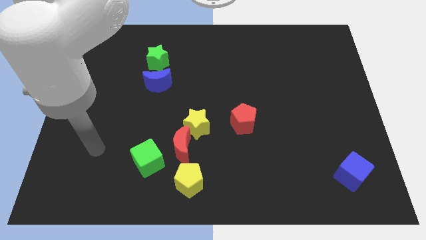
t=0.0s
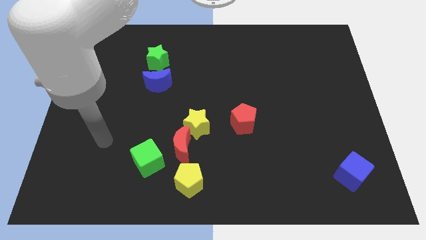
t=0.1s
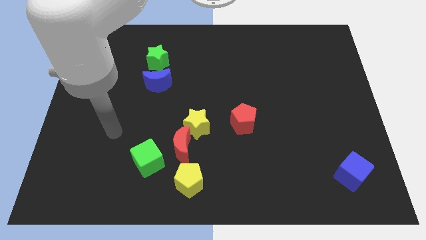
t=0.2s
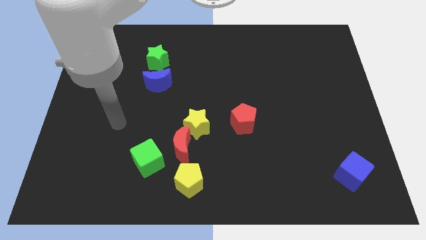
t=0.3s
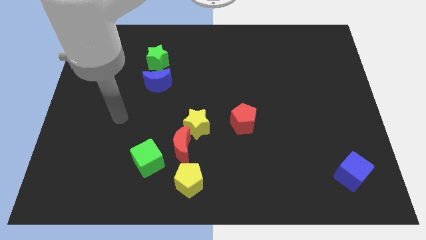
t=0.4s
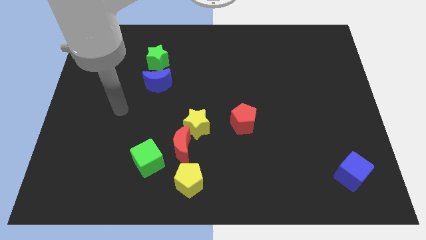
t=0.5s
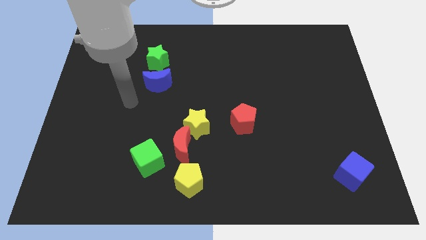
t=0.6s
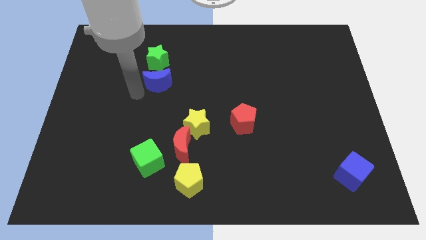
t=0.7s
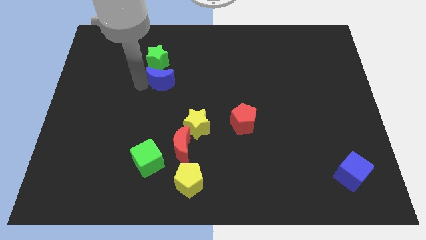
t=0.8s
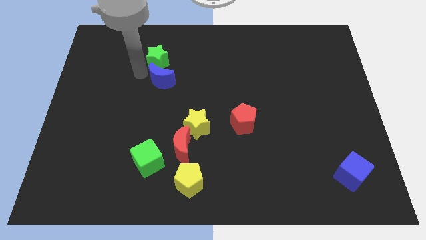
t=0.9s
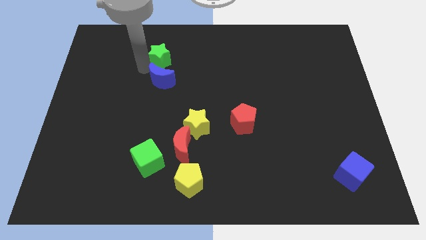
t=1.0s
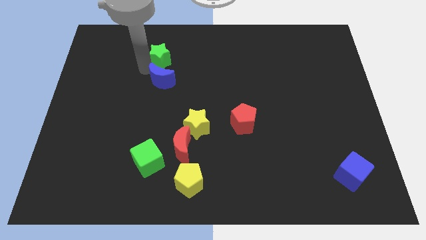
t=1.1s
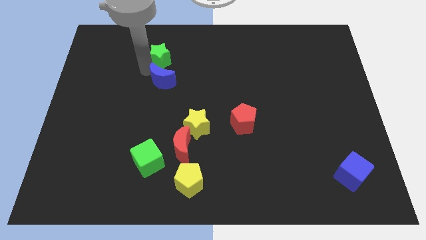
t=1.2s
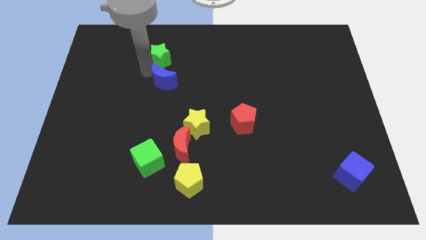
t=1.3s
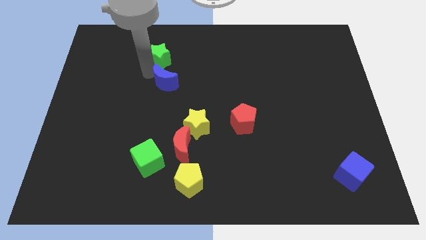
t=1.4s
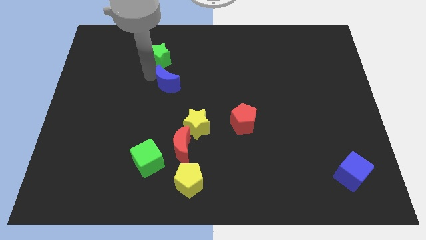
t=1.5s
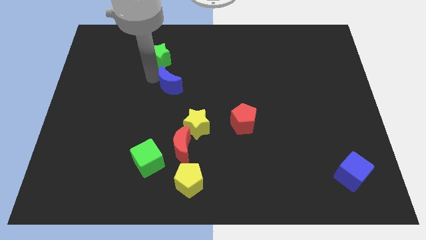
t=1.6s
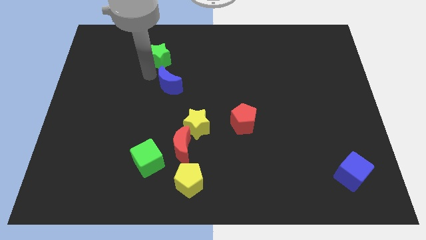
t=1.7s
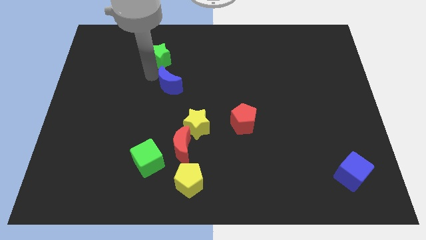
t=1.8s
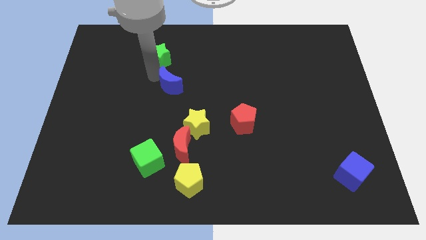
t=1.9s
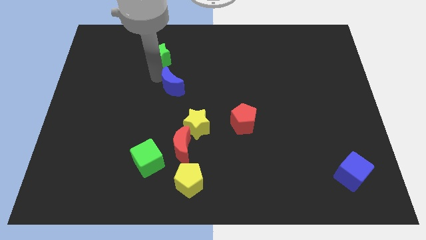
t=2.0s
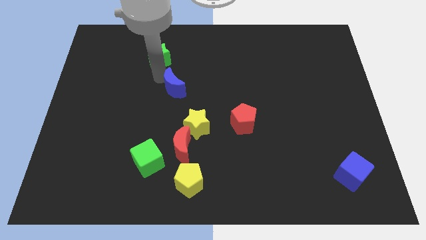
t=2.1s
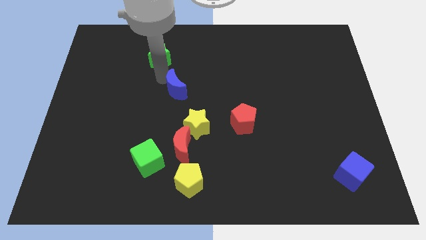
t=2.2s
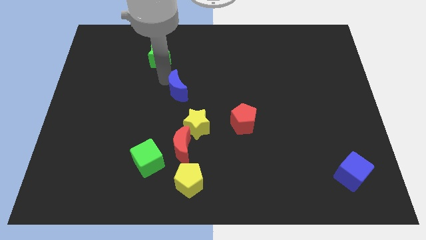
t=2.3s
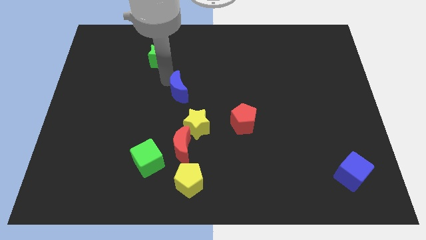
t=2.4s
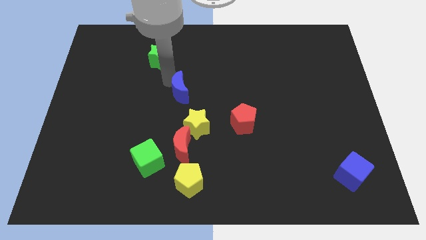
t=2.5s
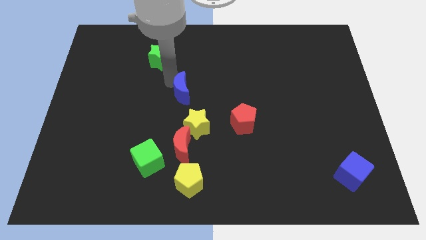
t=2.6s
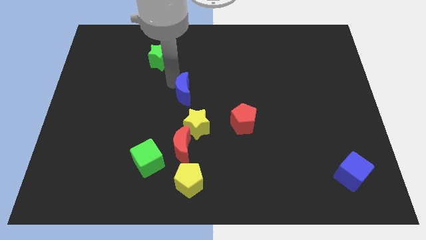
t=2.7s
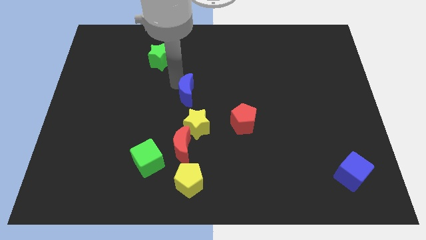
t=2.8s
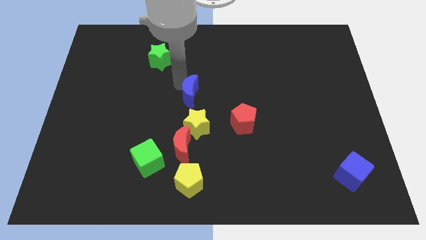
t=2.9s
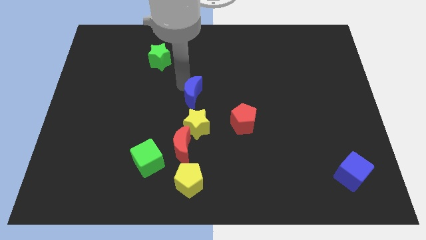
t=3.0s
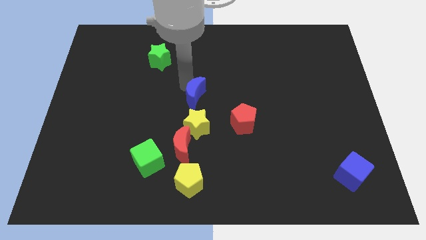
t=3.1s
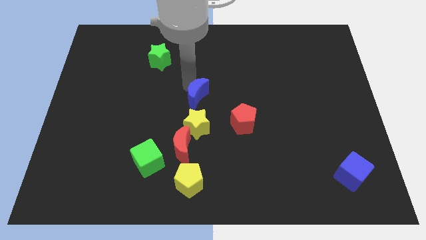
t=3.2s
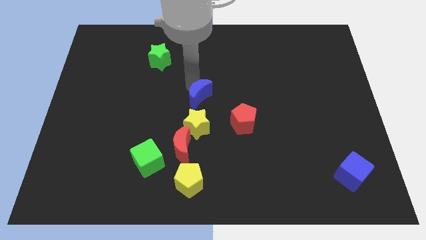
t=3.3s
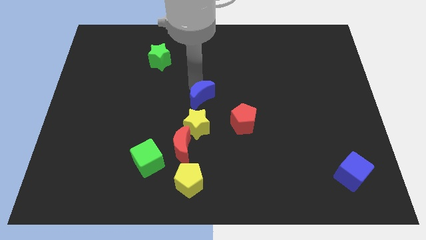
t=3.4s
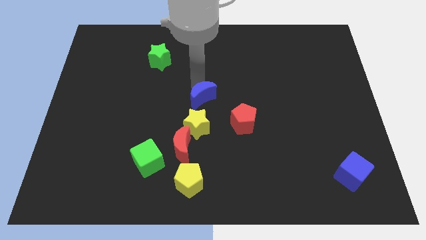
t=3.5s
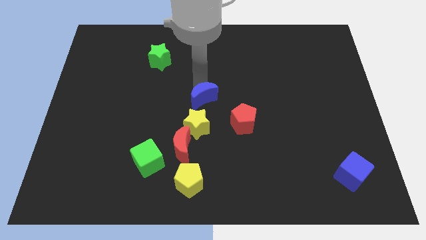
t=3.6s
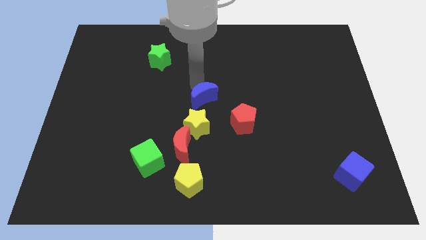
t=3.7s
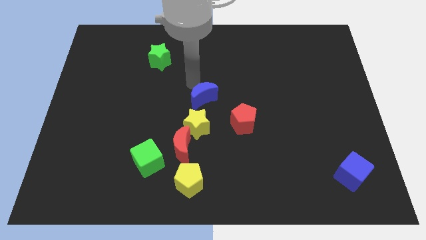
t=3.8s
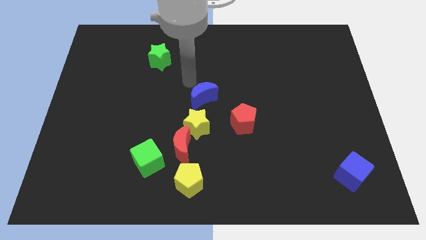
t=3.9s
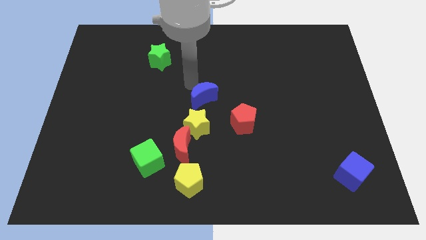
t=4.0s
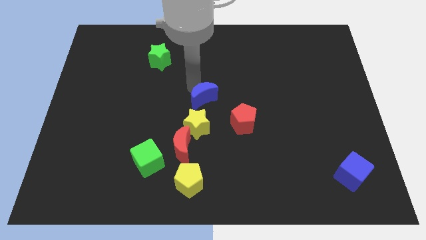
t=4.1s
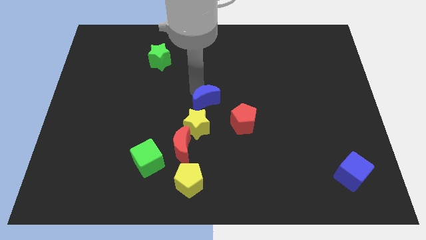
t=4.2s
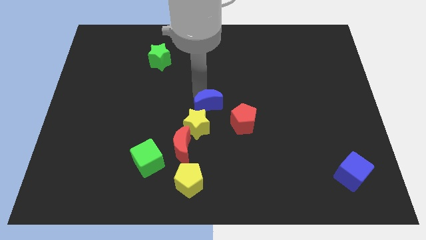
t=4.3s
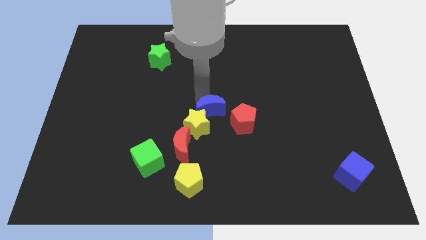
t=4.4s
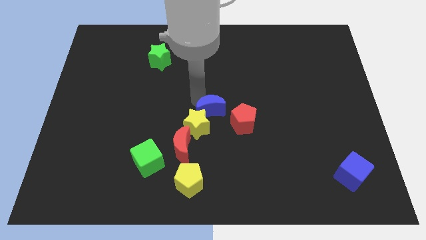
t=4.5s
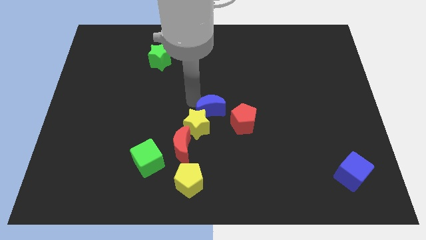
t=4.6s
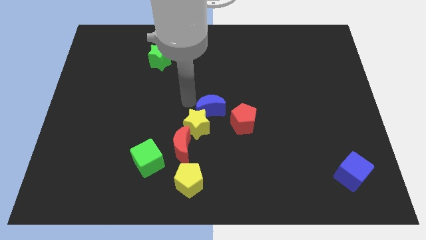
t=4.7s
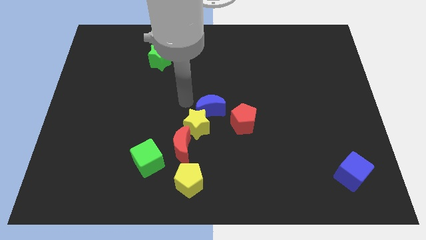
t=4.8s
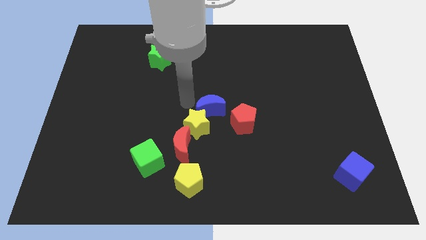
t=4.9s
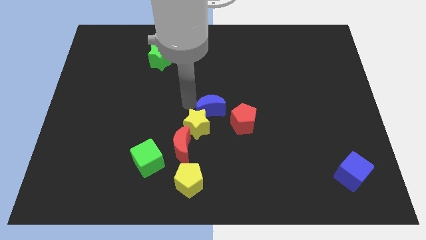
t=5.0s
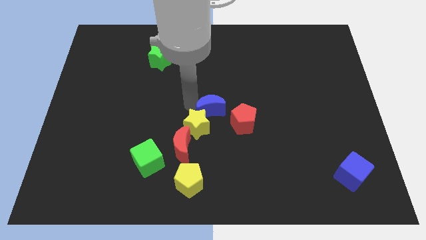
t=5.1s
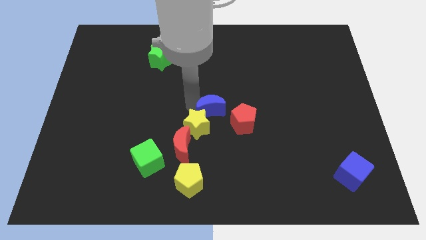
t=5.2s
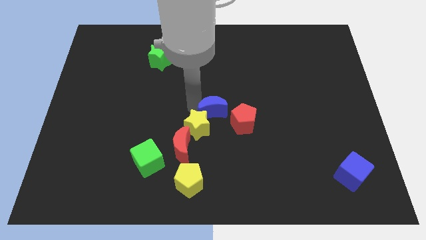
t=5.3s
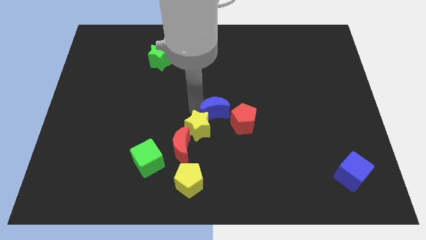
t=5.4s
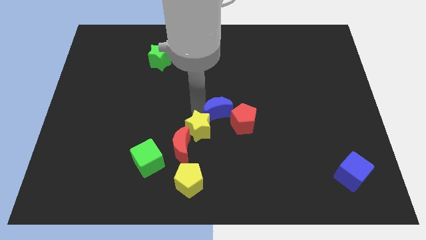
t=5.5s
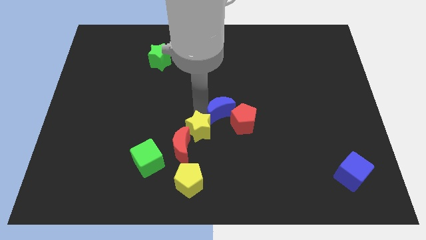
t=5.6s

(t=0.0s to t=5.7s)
push the blue moon towards the red pentagon

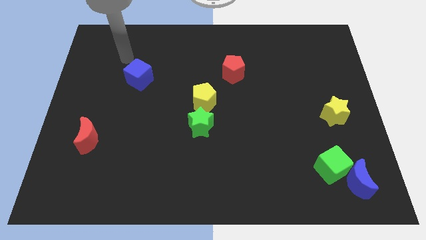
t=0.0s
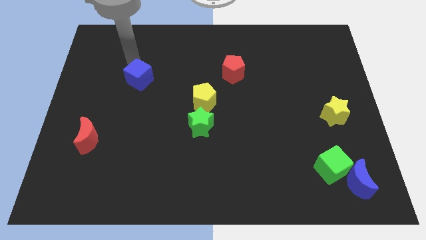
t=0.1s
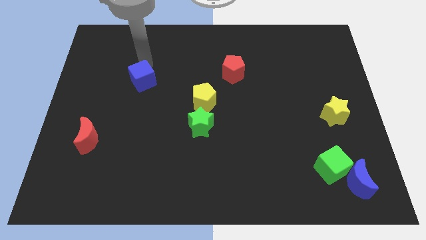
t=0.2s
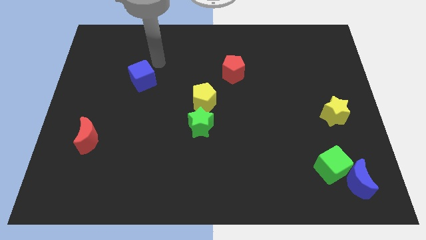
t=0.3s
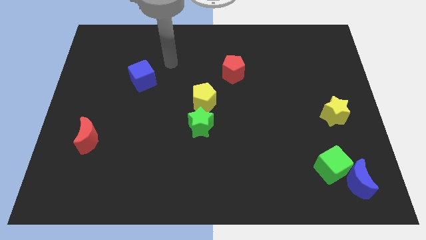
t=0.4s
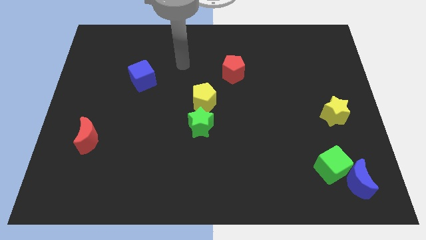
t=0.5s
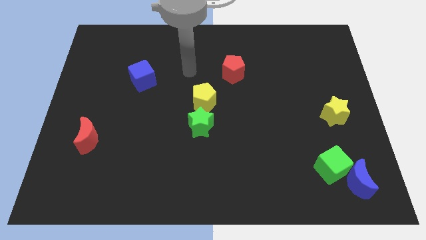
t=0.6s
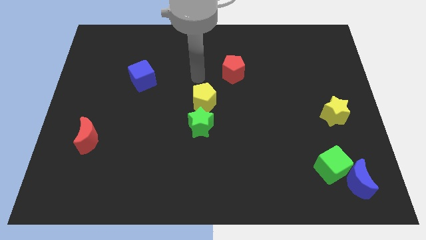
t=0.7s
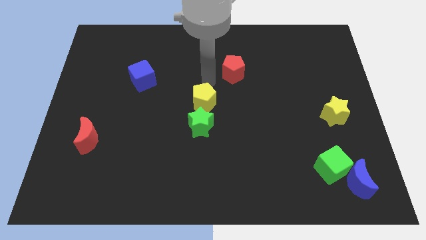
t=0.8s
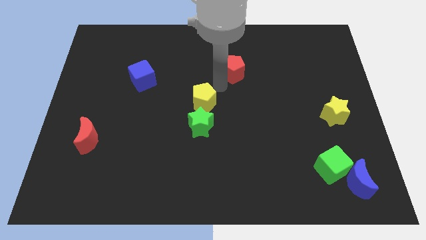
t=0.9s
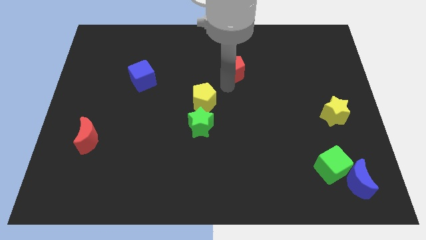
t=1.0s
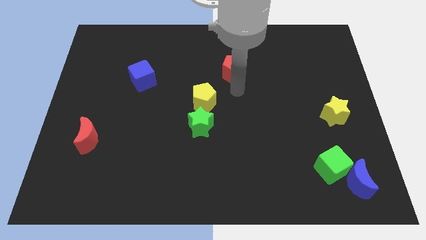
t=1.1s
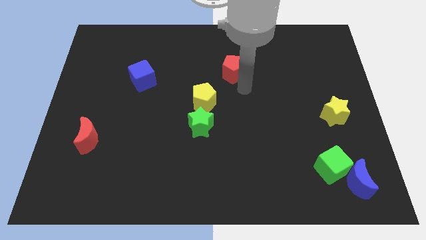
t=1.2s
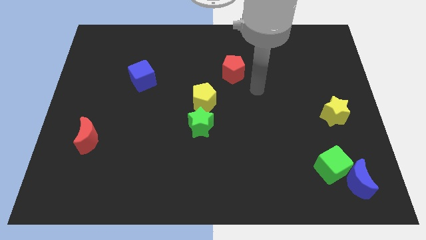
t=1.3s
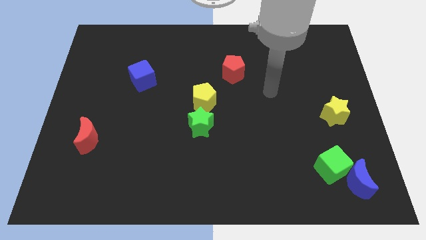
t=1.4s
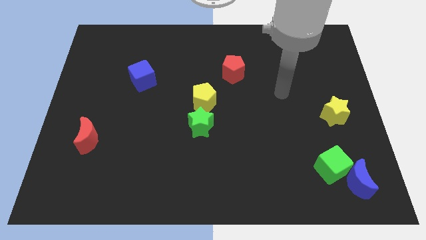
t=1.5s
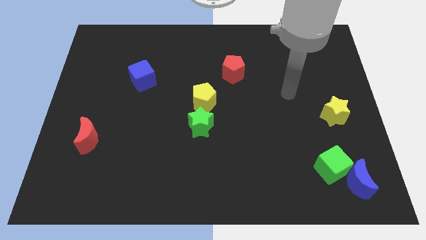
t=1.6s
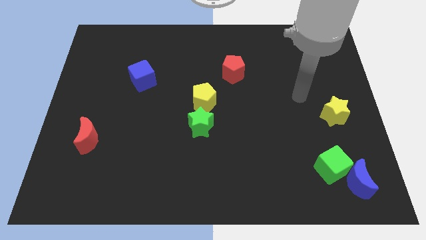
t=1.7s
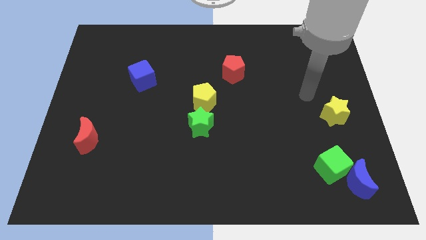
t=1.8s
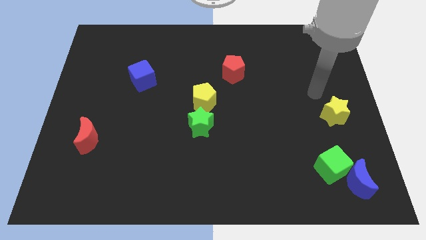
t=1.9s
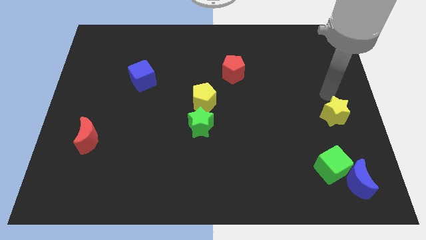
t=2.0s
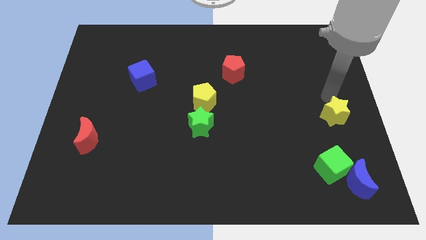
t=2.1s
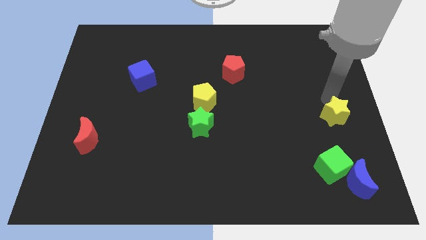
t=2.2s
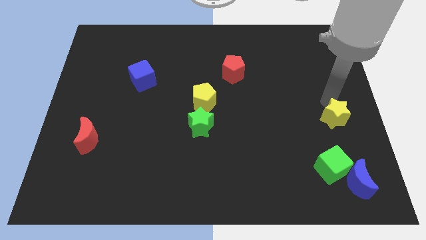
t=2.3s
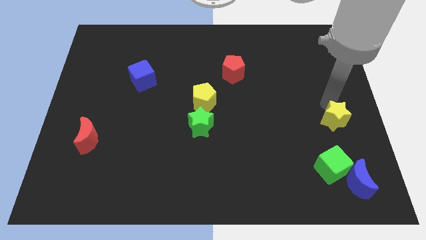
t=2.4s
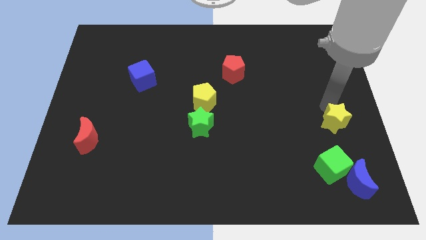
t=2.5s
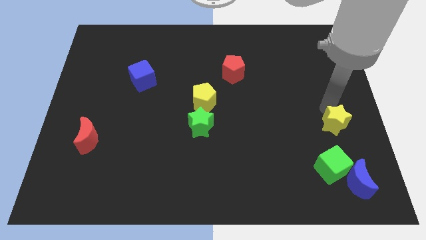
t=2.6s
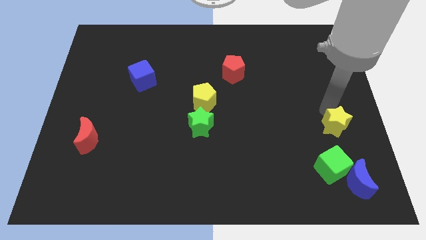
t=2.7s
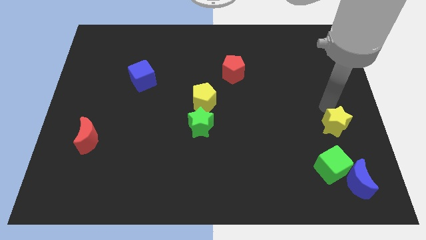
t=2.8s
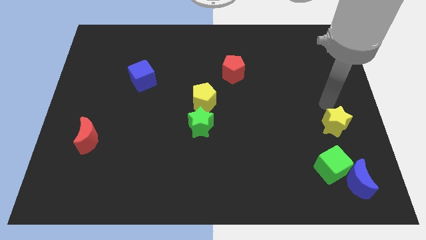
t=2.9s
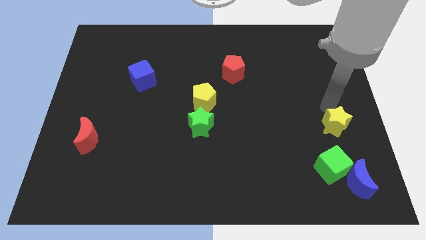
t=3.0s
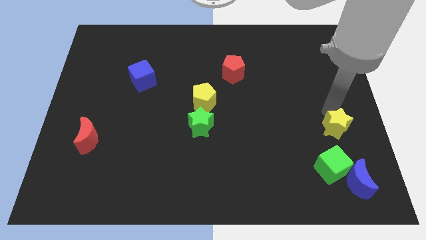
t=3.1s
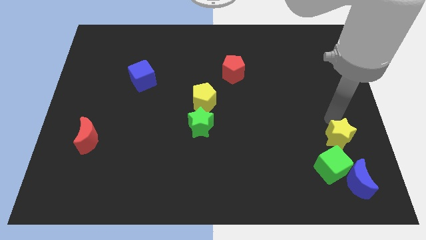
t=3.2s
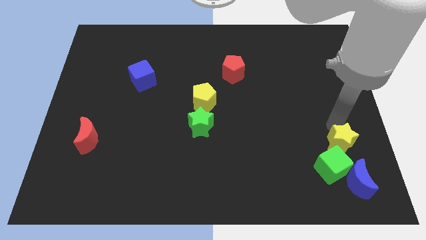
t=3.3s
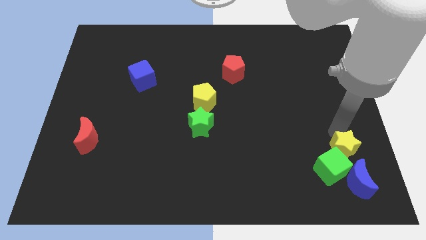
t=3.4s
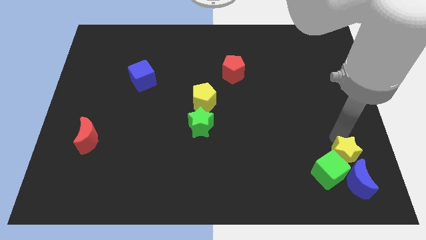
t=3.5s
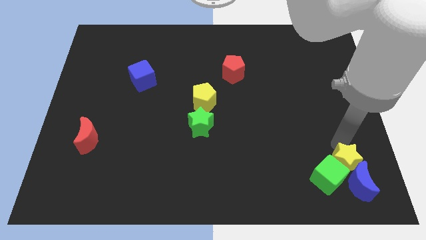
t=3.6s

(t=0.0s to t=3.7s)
push the yellow star to the blue moon
